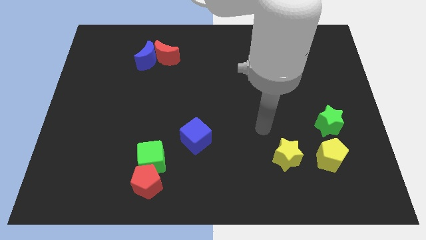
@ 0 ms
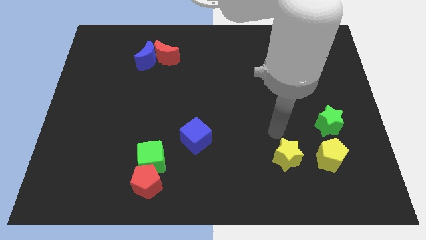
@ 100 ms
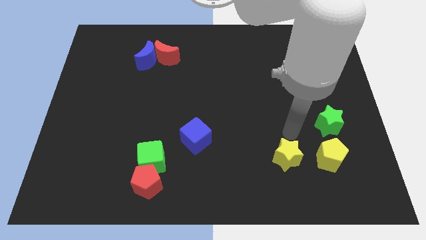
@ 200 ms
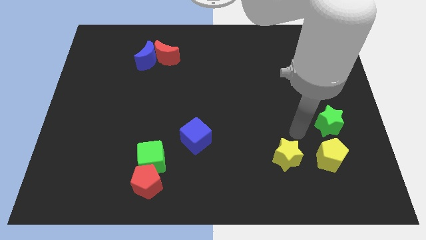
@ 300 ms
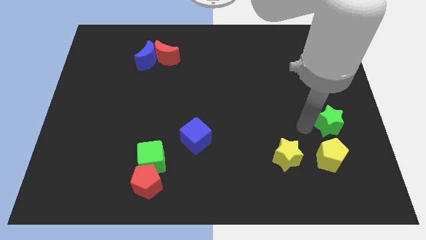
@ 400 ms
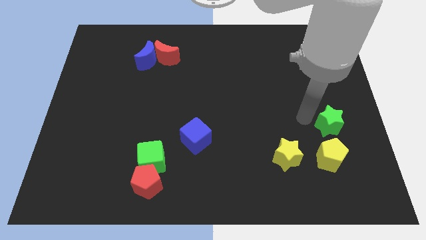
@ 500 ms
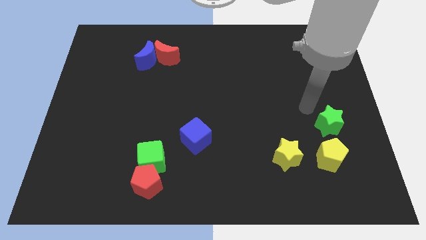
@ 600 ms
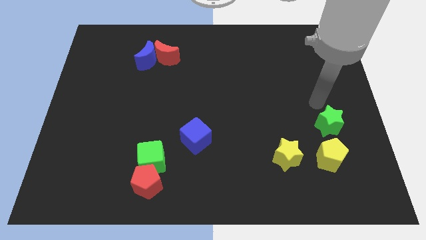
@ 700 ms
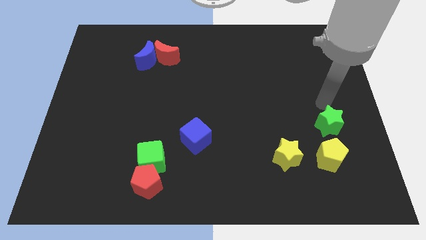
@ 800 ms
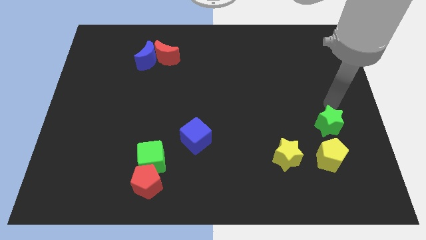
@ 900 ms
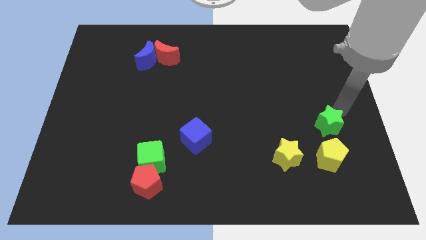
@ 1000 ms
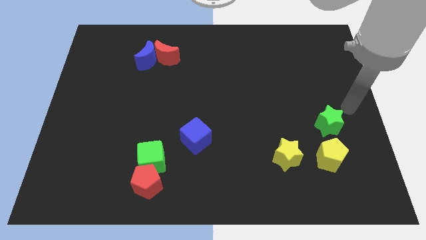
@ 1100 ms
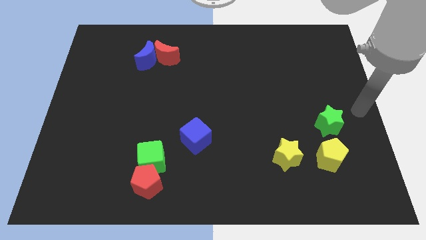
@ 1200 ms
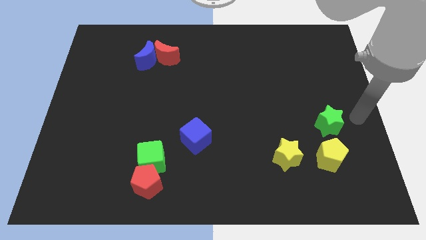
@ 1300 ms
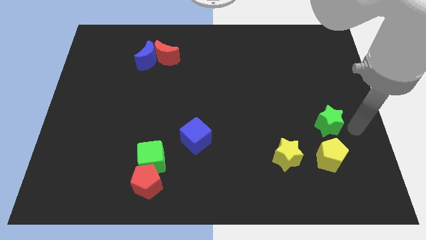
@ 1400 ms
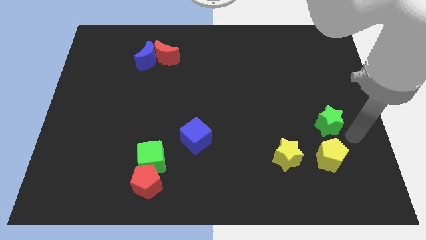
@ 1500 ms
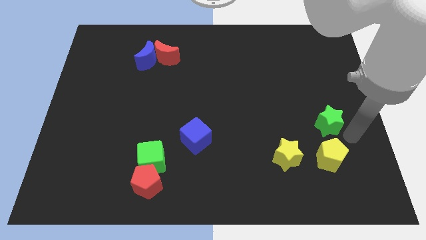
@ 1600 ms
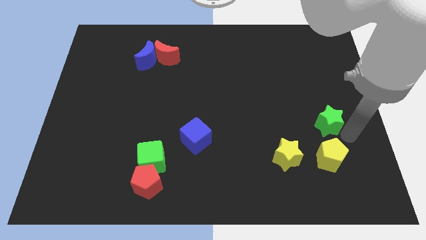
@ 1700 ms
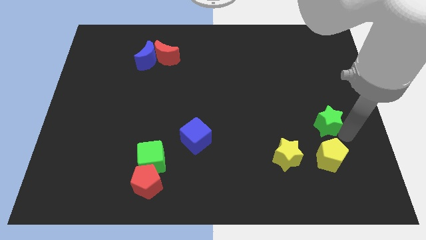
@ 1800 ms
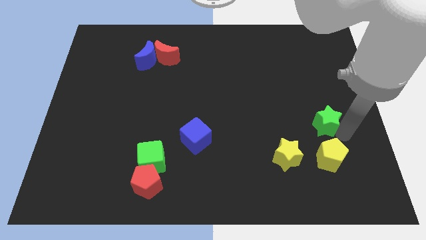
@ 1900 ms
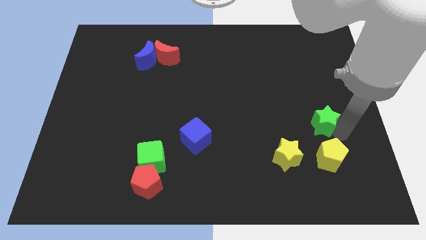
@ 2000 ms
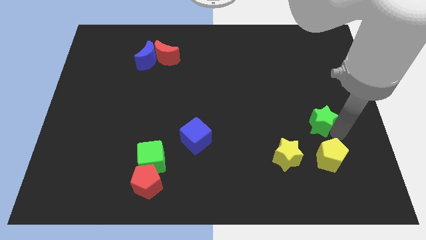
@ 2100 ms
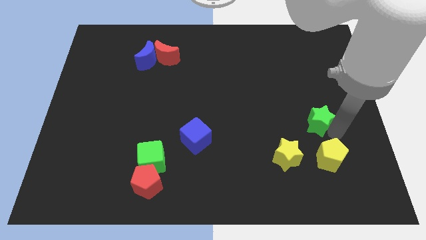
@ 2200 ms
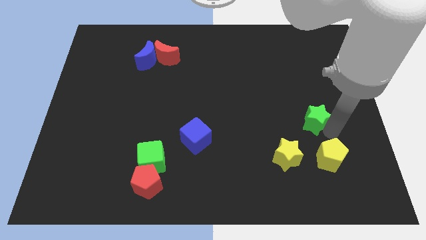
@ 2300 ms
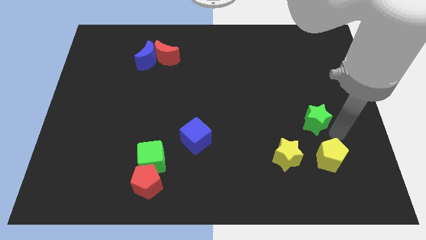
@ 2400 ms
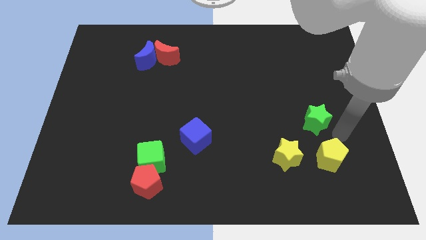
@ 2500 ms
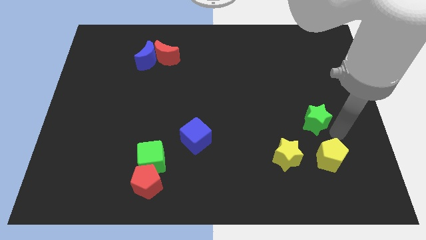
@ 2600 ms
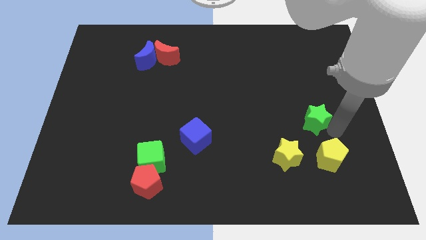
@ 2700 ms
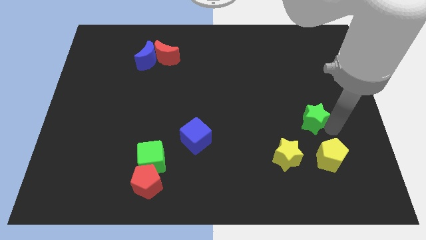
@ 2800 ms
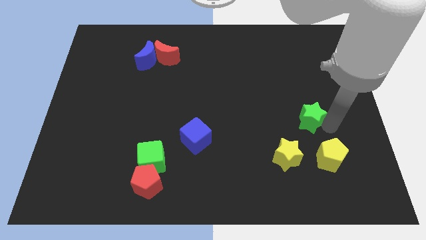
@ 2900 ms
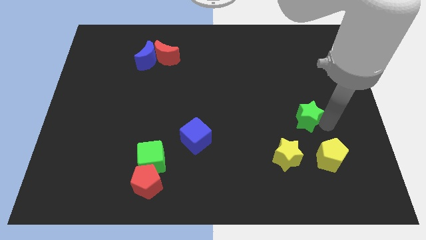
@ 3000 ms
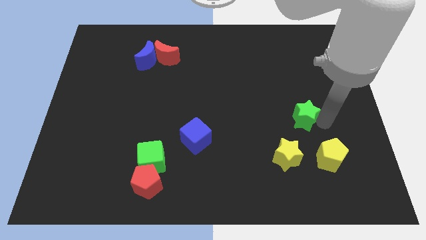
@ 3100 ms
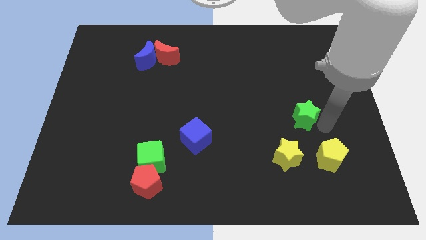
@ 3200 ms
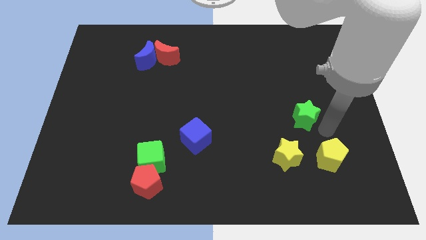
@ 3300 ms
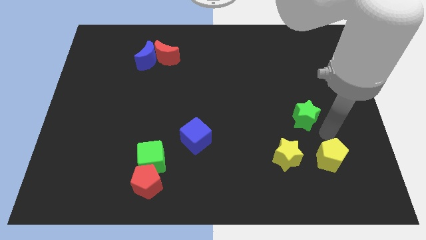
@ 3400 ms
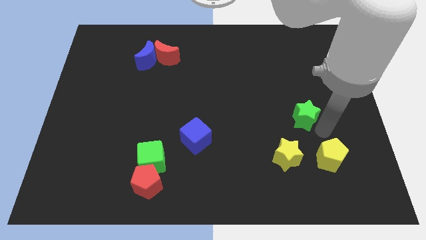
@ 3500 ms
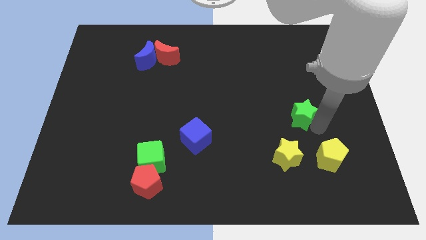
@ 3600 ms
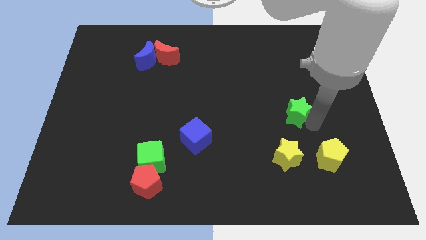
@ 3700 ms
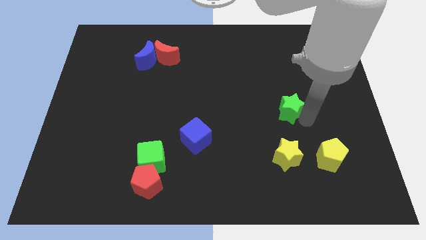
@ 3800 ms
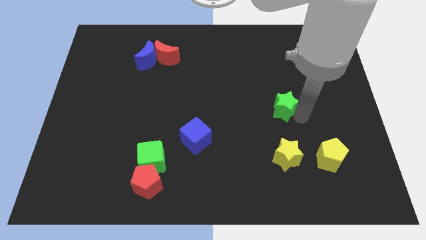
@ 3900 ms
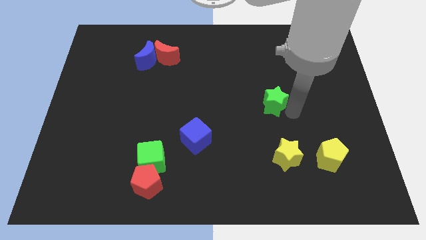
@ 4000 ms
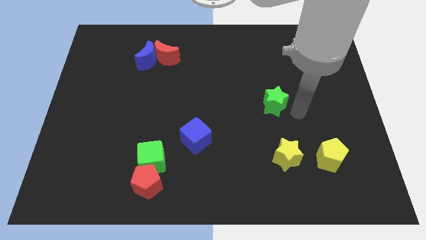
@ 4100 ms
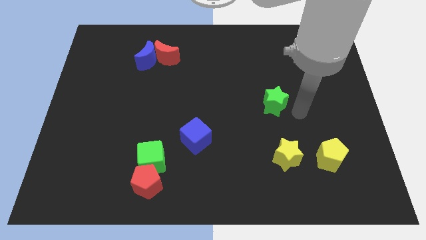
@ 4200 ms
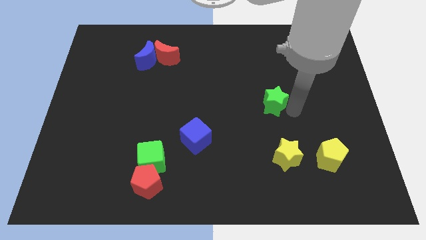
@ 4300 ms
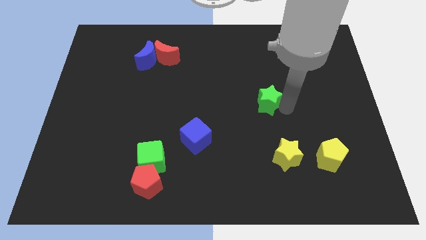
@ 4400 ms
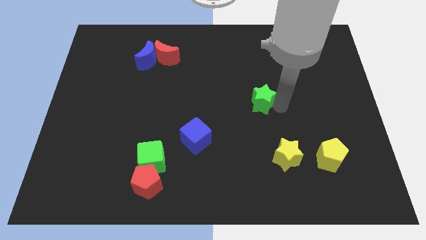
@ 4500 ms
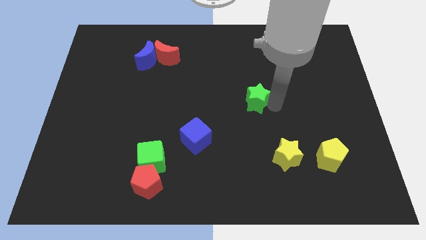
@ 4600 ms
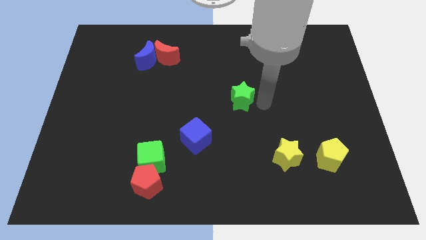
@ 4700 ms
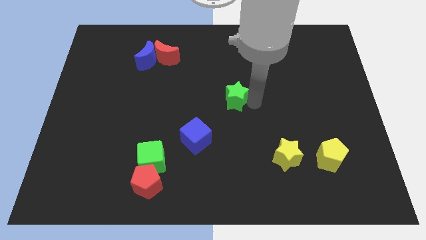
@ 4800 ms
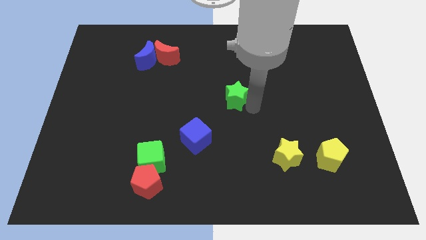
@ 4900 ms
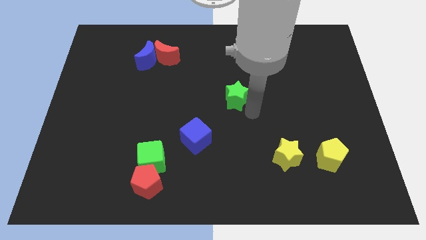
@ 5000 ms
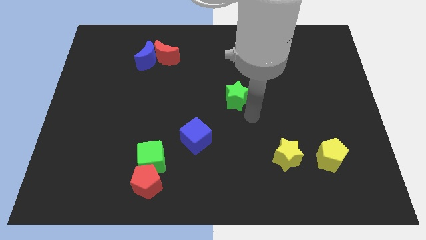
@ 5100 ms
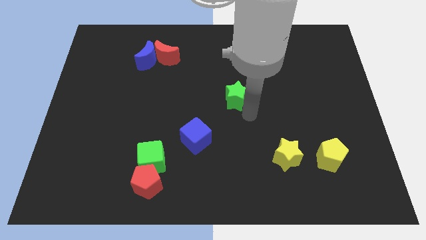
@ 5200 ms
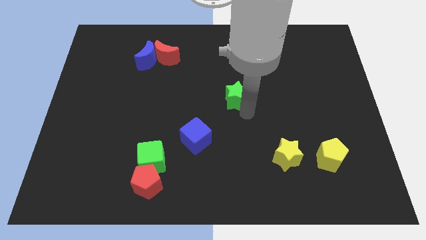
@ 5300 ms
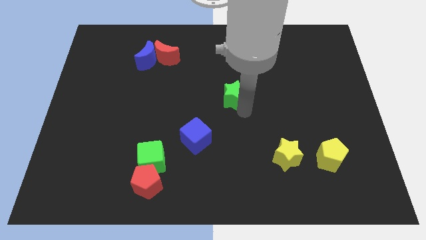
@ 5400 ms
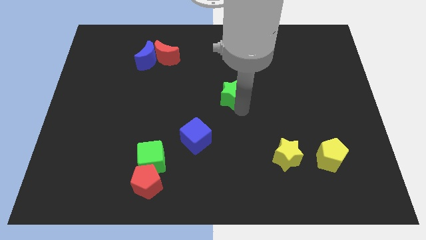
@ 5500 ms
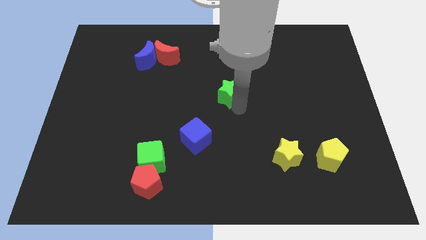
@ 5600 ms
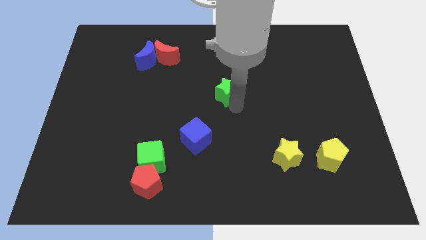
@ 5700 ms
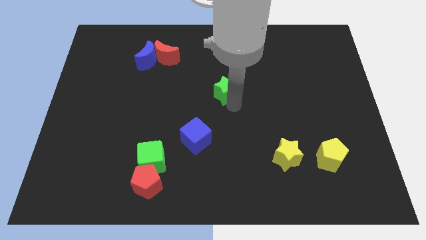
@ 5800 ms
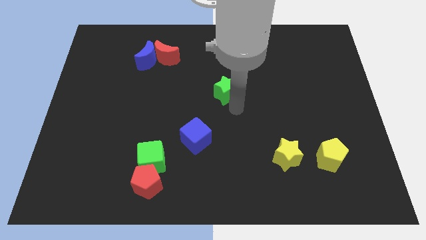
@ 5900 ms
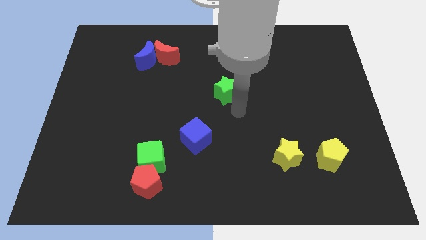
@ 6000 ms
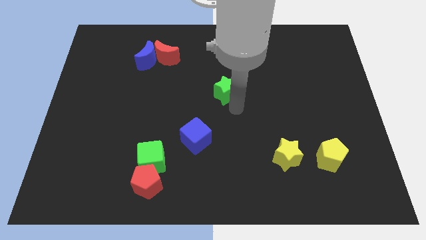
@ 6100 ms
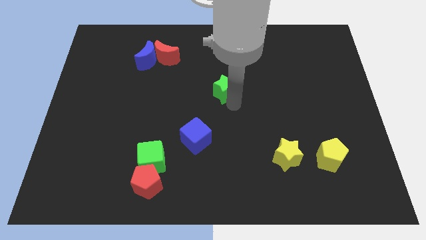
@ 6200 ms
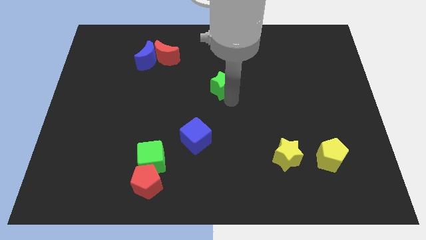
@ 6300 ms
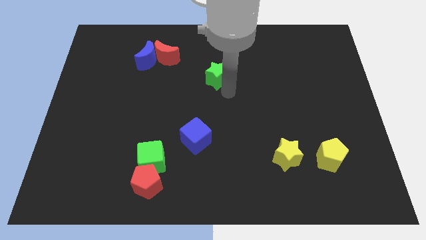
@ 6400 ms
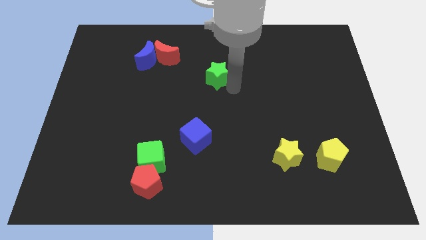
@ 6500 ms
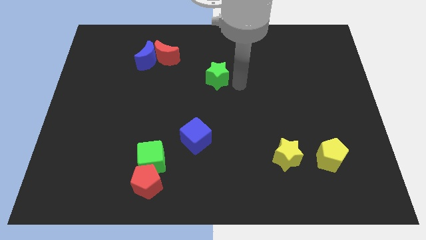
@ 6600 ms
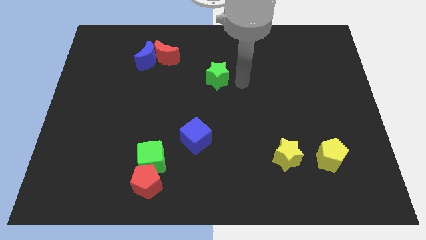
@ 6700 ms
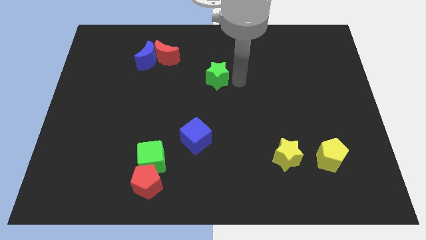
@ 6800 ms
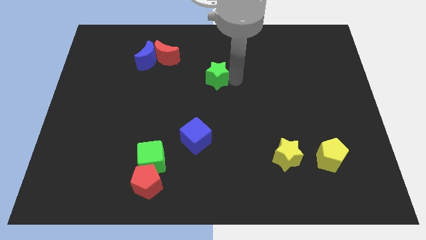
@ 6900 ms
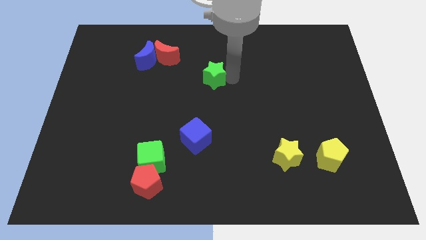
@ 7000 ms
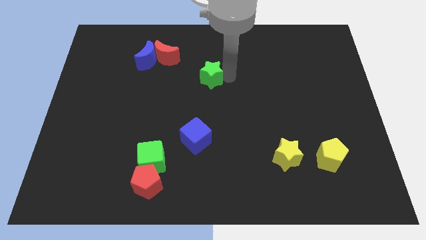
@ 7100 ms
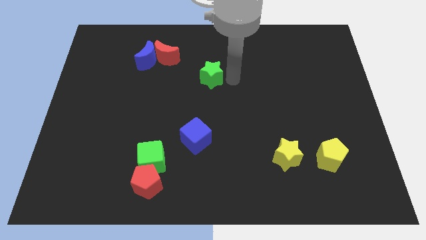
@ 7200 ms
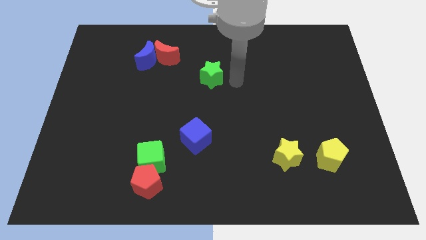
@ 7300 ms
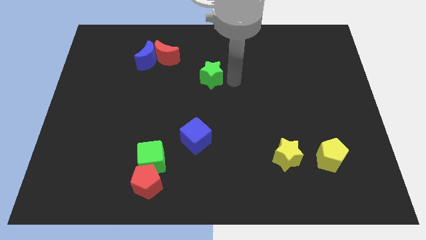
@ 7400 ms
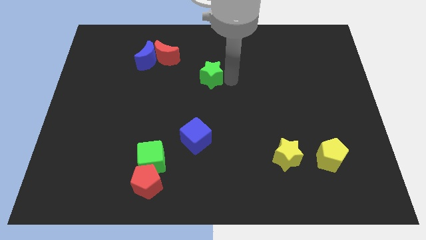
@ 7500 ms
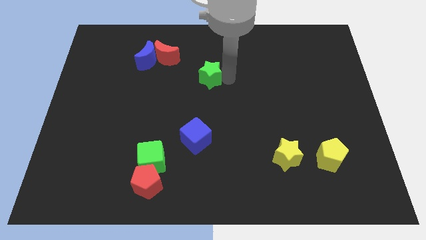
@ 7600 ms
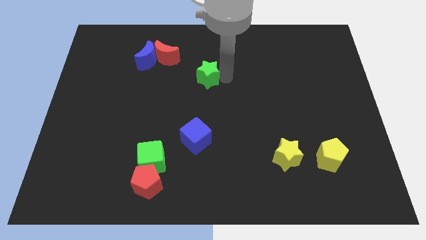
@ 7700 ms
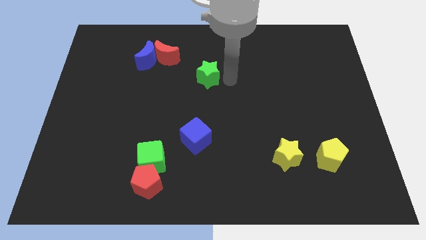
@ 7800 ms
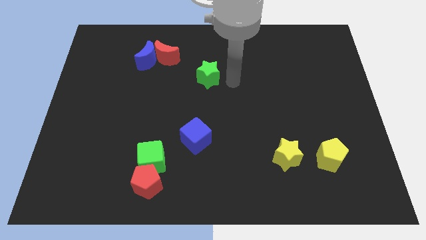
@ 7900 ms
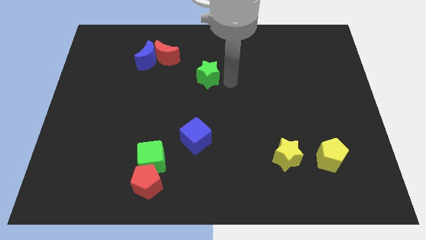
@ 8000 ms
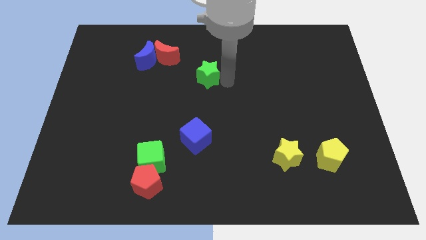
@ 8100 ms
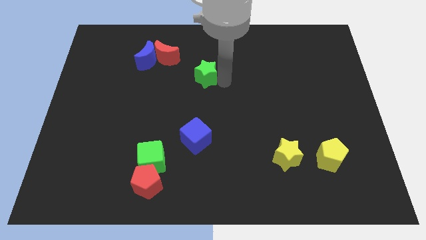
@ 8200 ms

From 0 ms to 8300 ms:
put the green star diagonally down and to the right of the red moon
